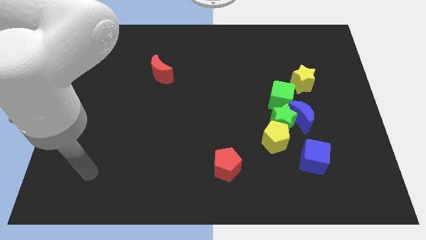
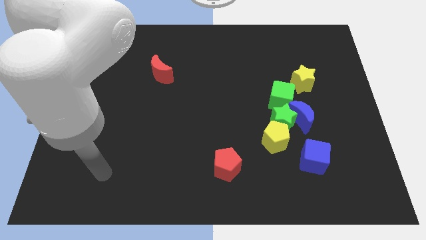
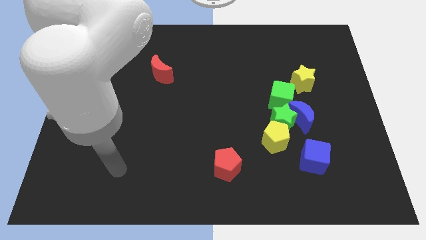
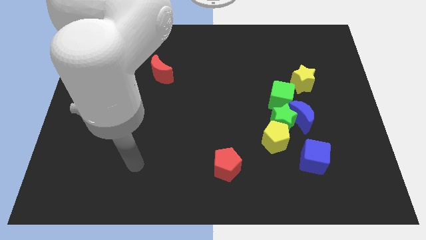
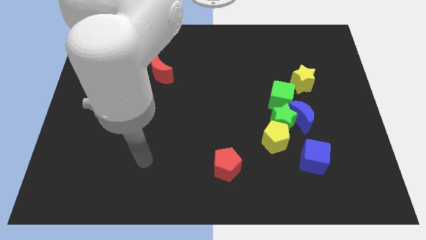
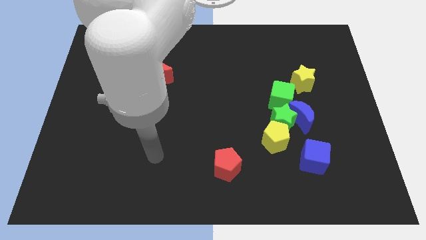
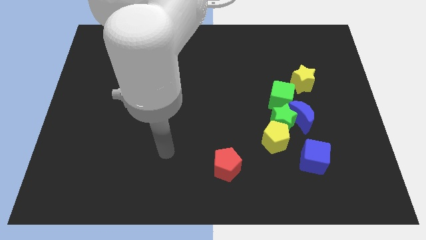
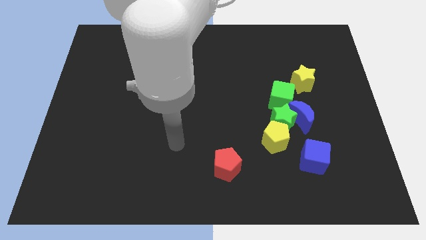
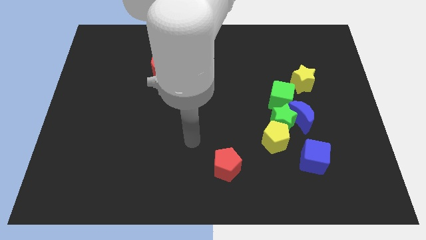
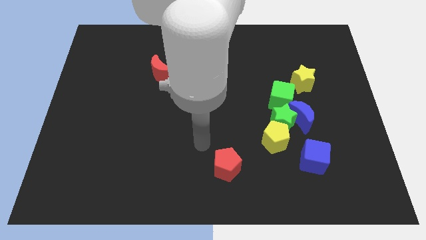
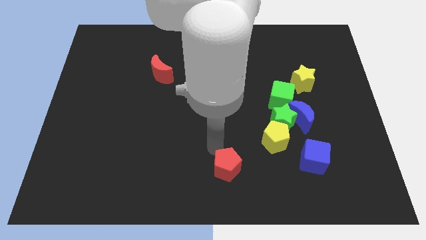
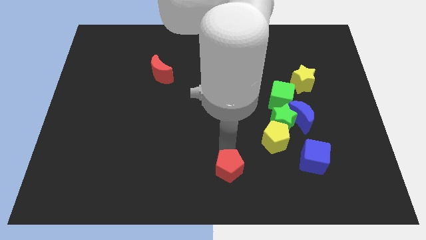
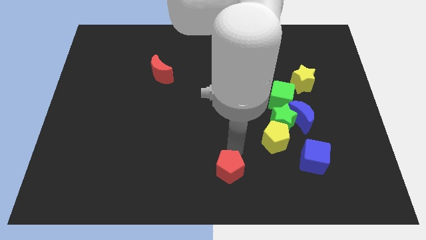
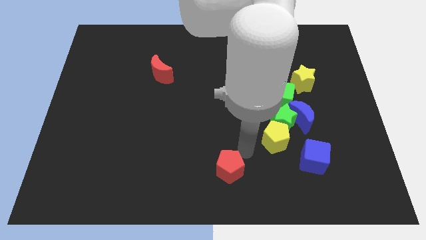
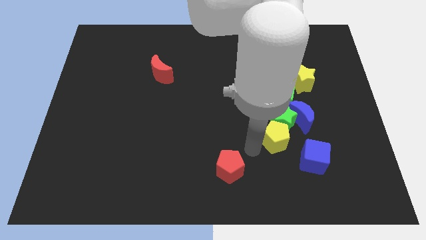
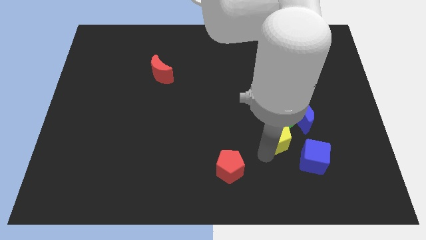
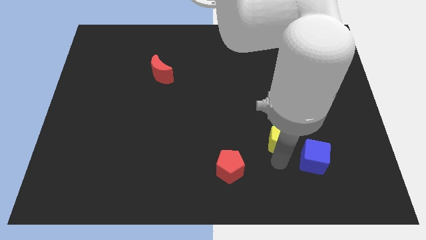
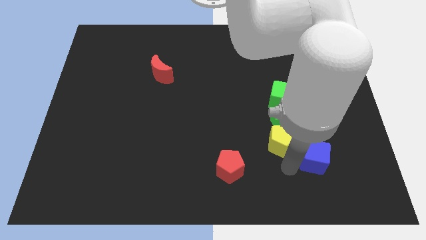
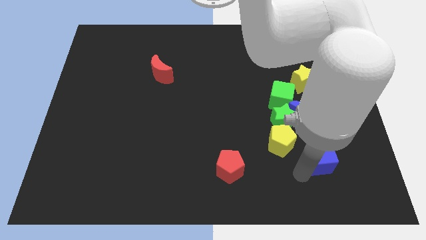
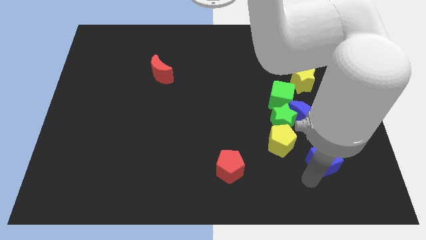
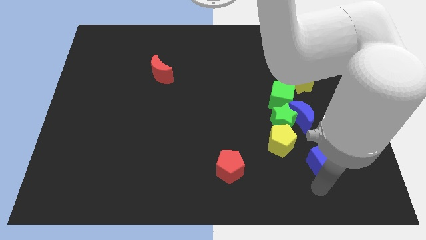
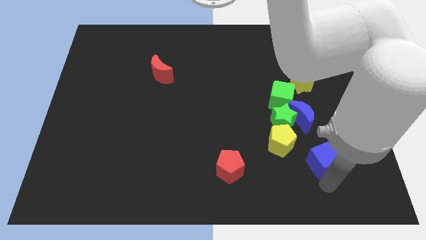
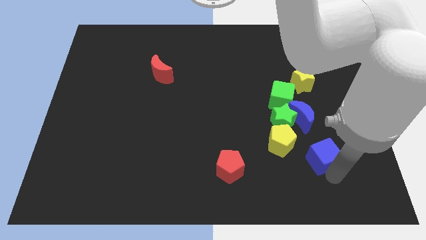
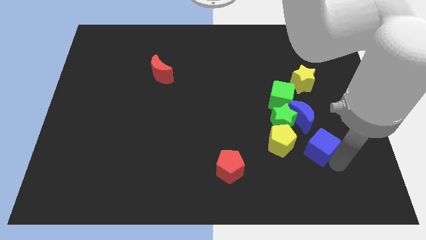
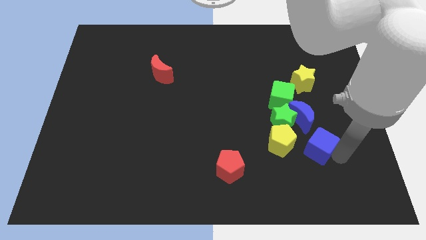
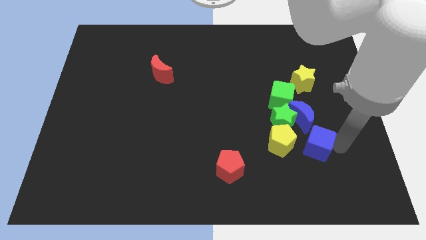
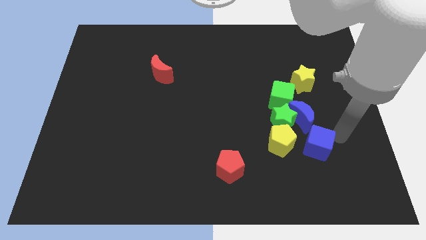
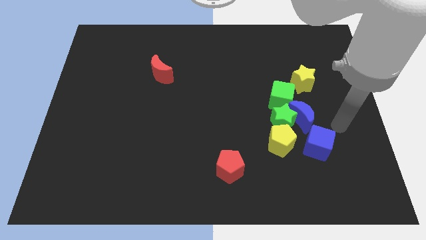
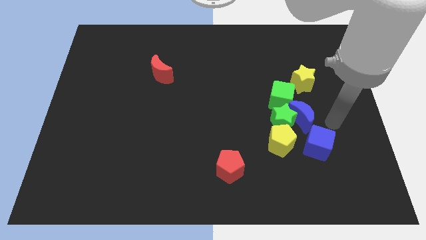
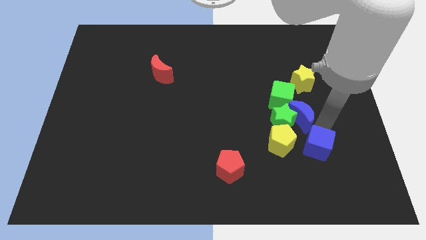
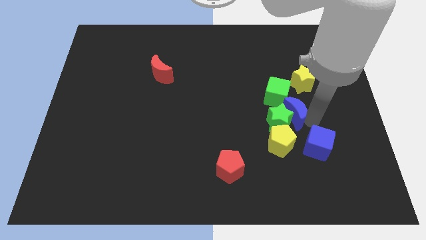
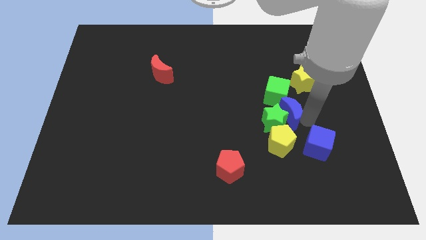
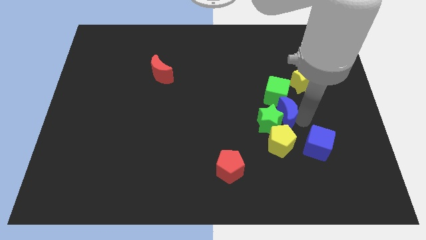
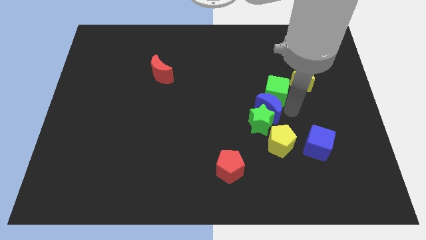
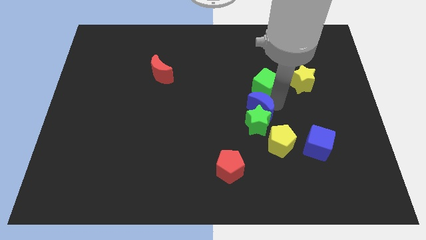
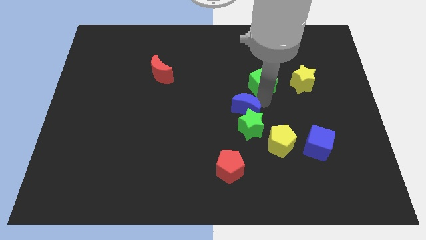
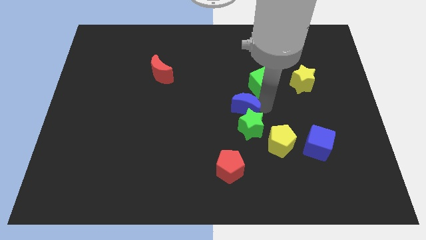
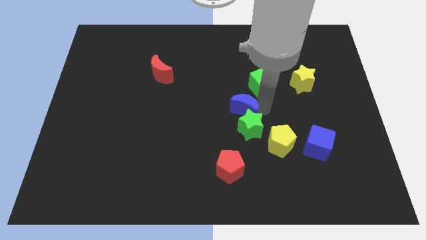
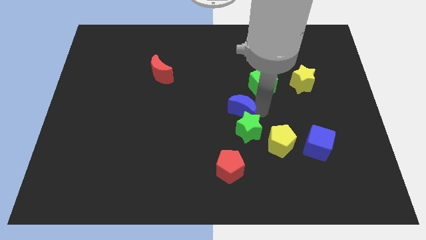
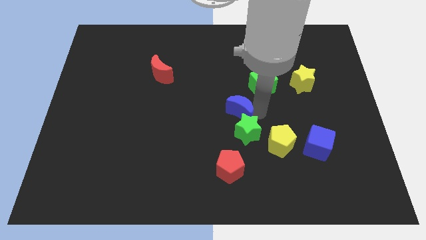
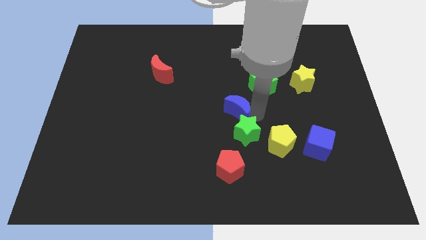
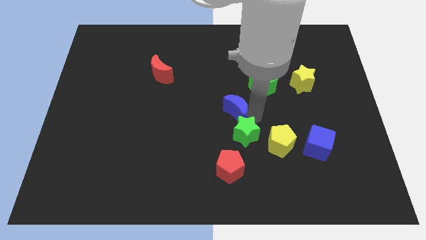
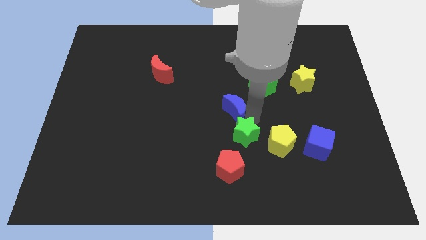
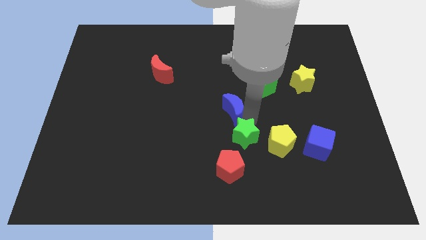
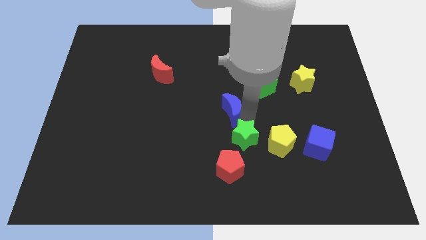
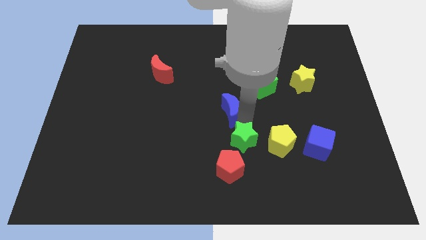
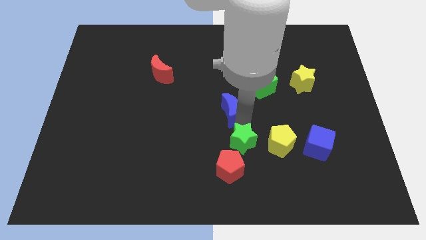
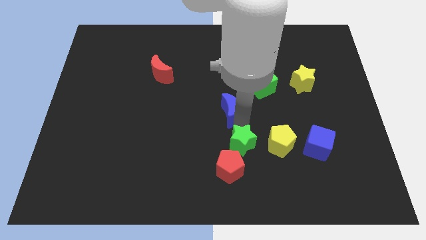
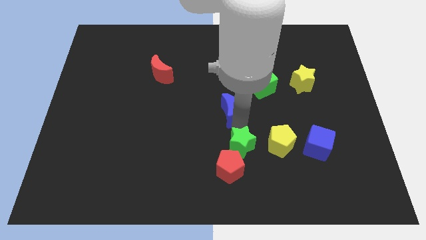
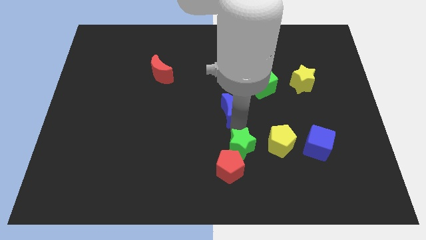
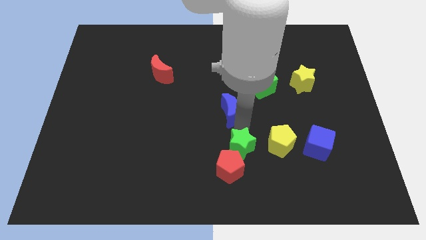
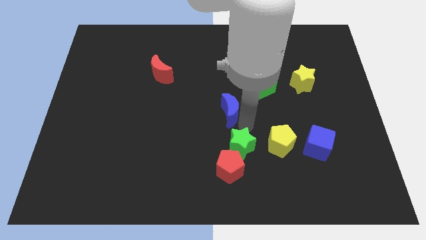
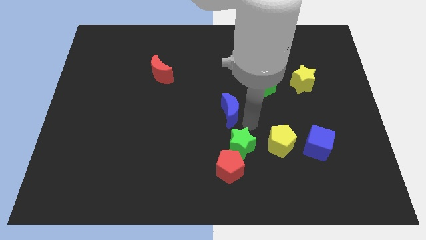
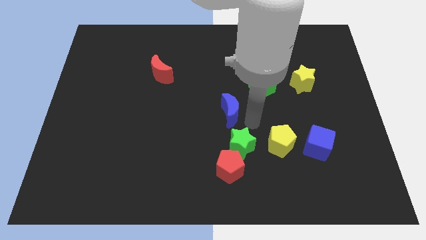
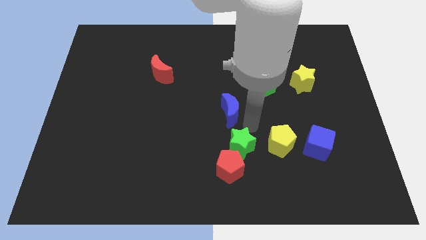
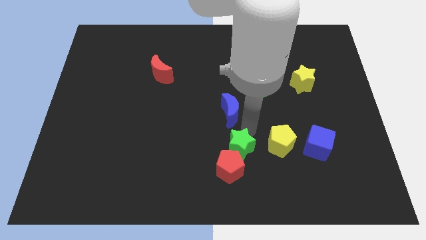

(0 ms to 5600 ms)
pull the green star apart from the blue moon, yellow pentagon, and green cube

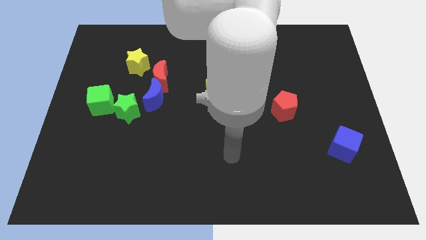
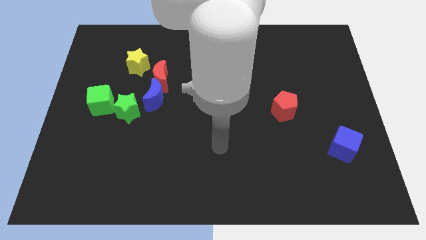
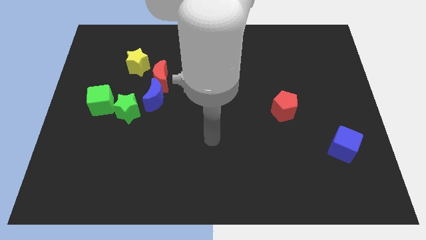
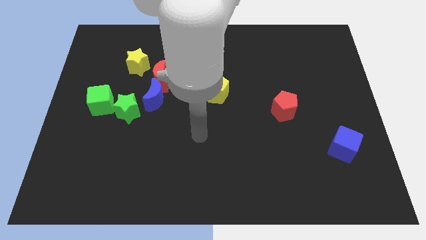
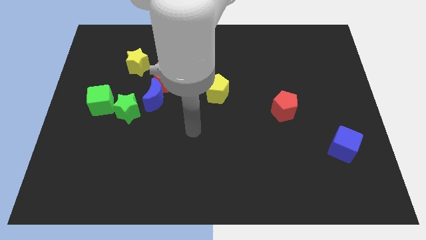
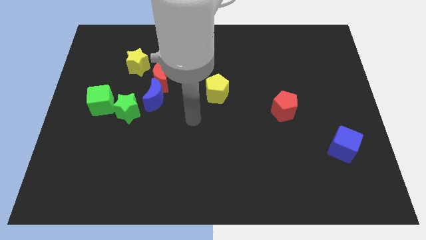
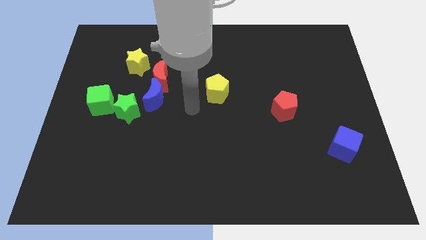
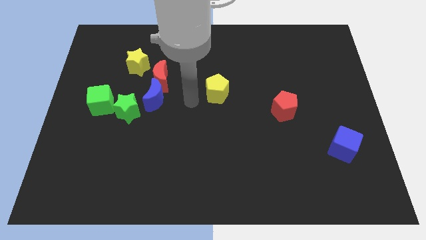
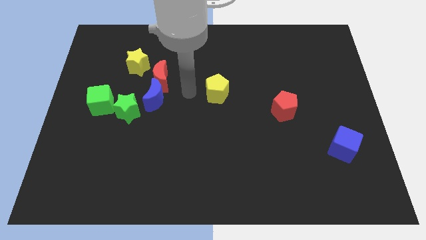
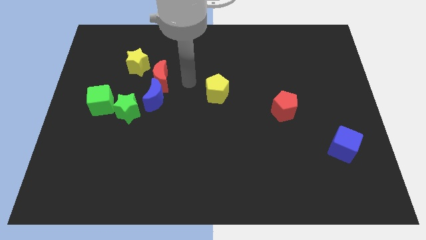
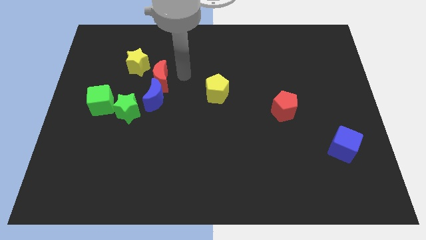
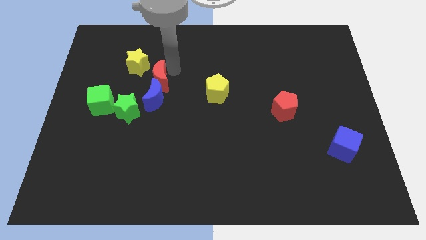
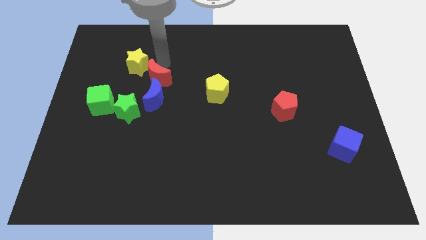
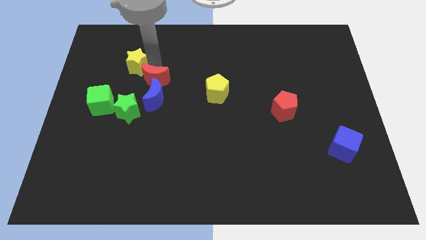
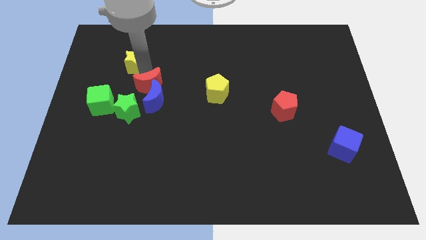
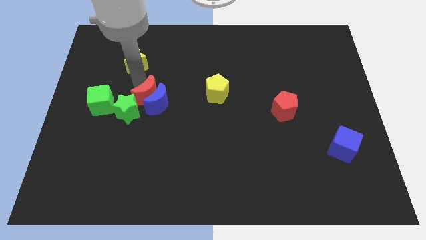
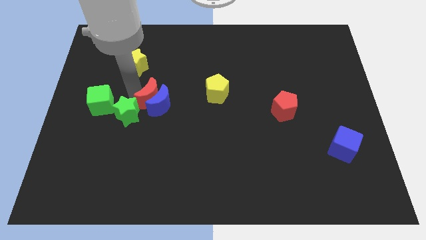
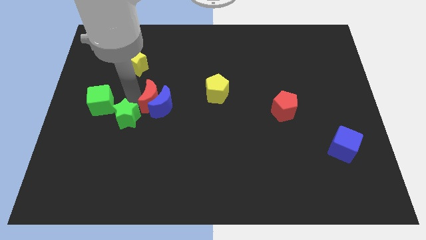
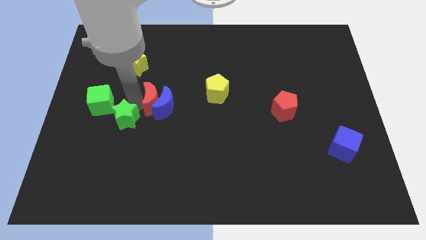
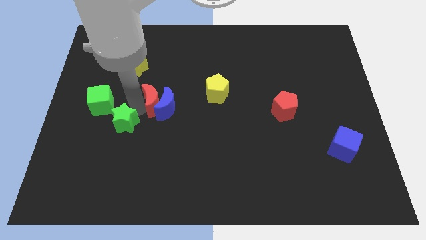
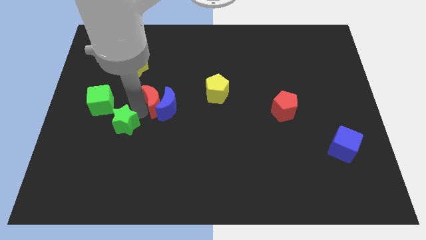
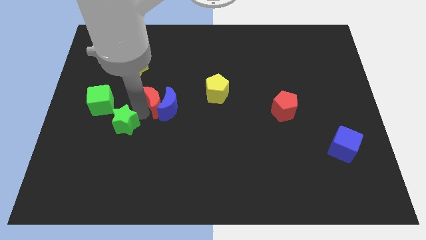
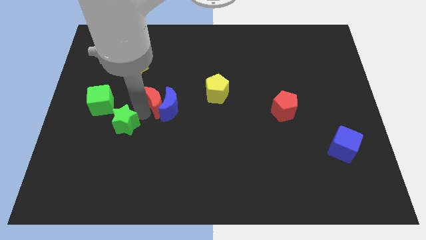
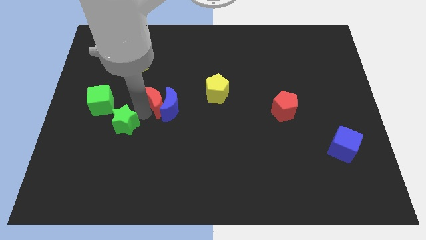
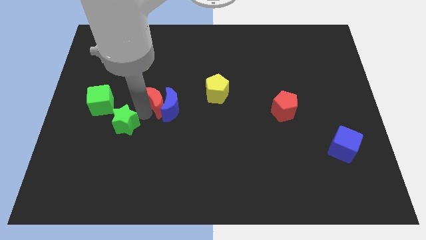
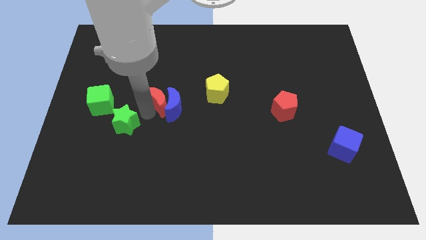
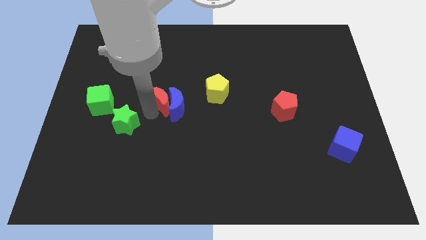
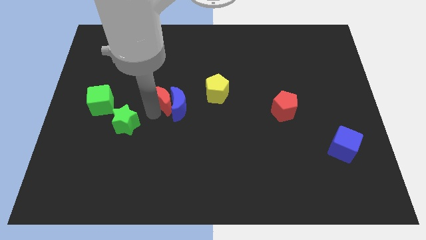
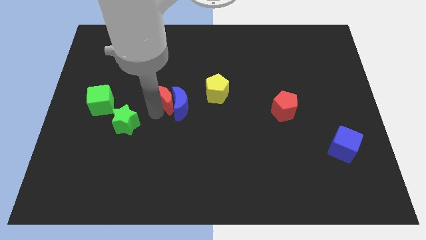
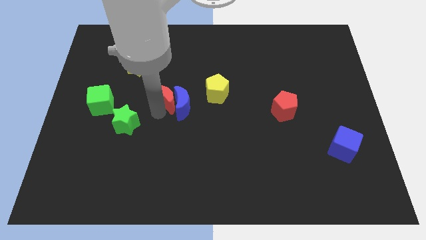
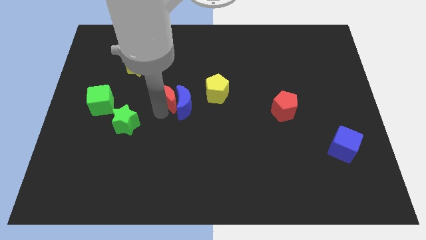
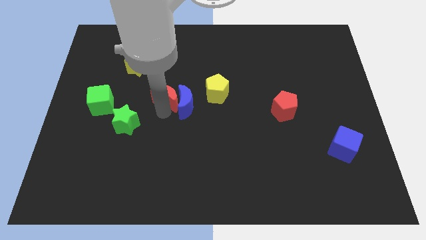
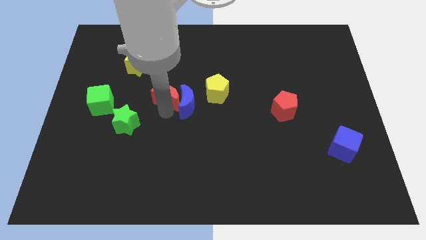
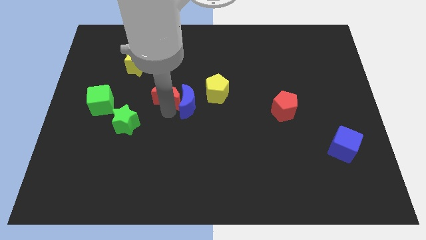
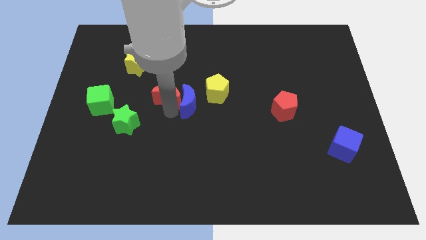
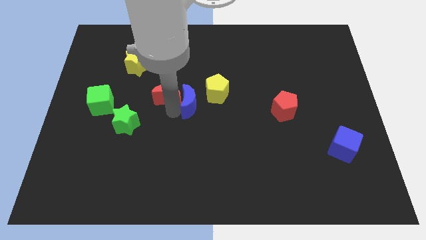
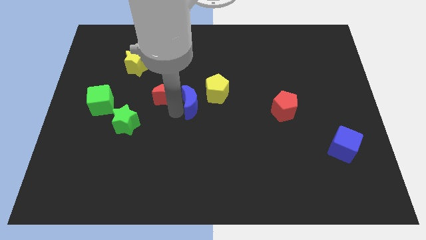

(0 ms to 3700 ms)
pull the blue moon apart from the red moon and green star
